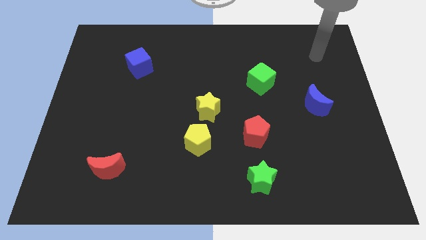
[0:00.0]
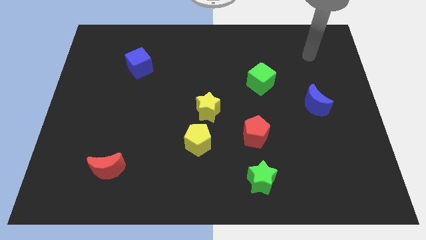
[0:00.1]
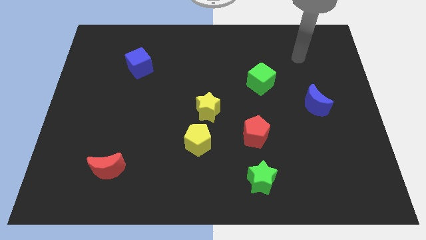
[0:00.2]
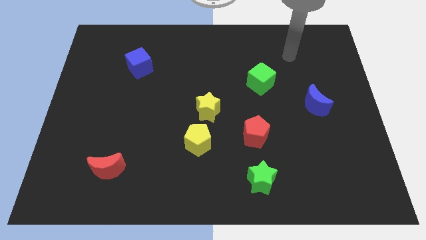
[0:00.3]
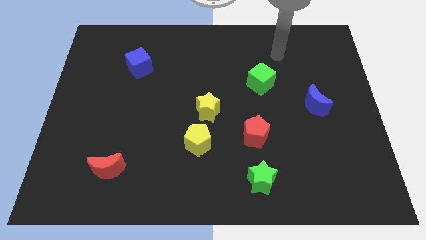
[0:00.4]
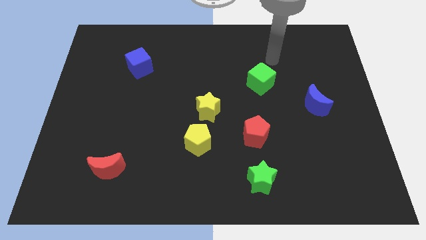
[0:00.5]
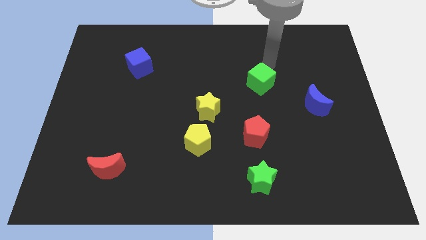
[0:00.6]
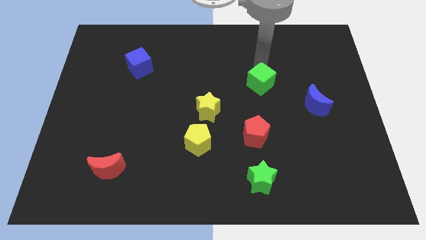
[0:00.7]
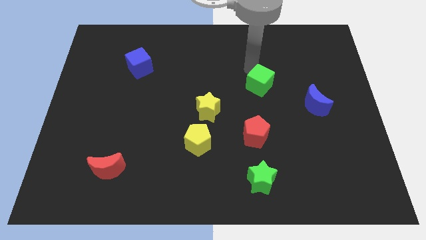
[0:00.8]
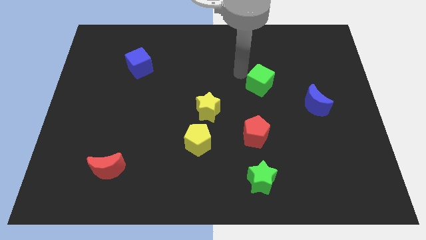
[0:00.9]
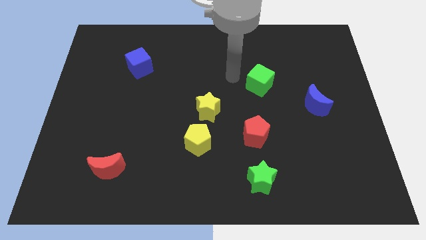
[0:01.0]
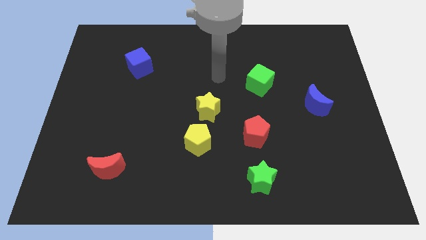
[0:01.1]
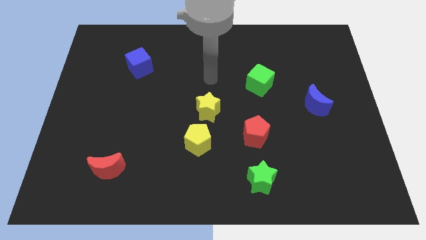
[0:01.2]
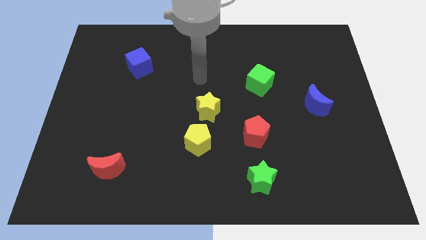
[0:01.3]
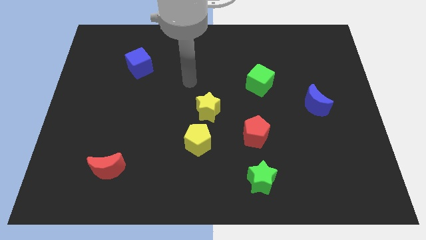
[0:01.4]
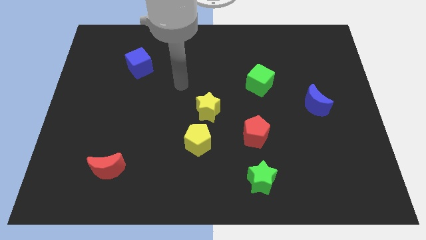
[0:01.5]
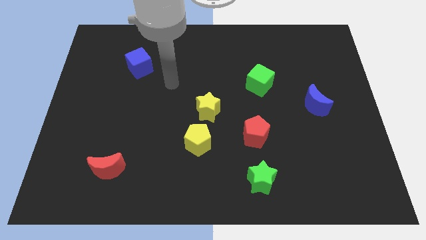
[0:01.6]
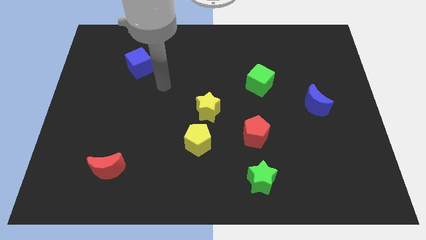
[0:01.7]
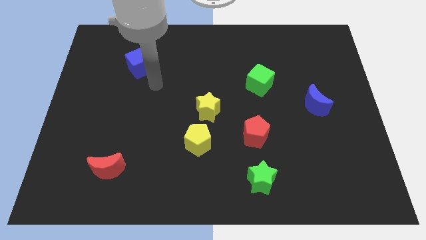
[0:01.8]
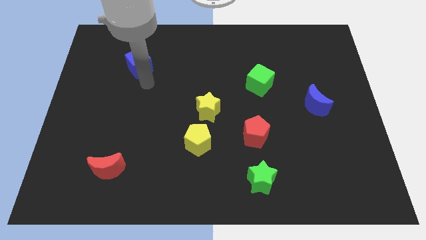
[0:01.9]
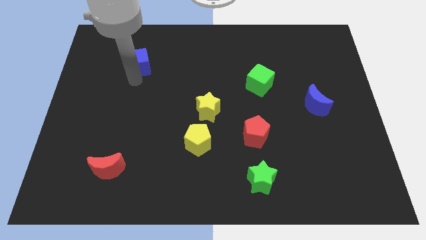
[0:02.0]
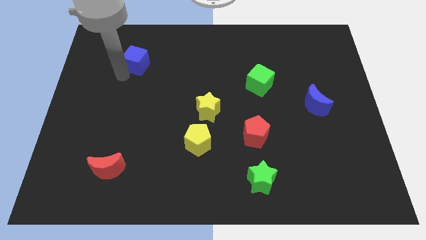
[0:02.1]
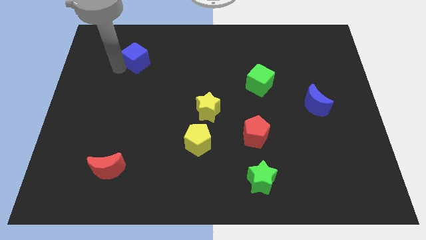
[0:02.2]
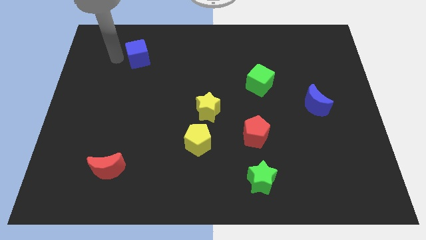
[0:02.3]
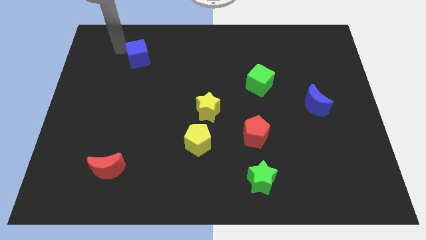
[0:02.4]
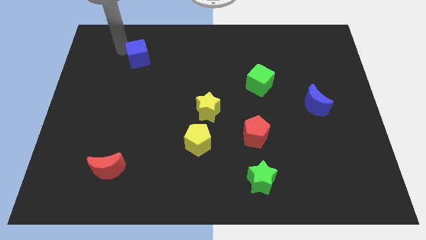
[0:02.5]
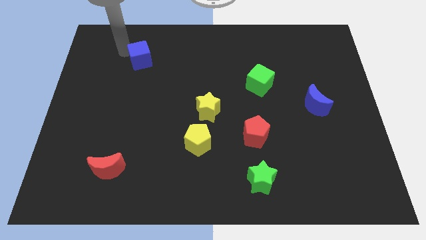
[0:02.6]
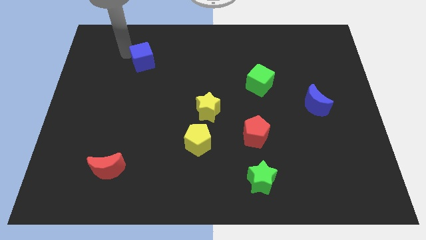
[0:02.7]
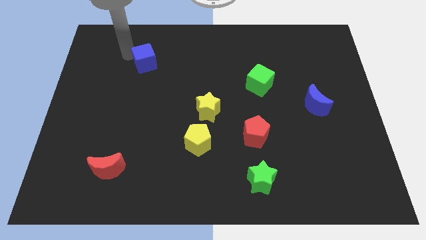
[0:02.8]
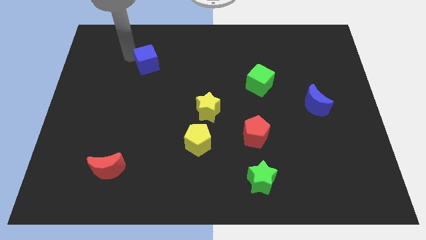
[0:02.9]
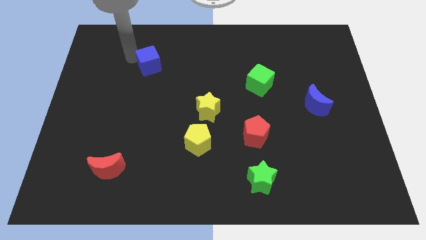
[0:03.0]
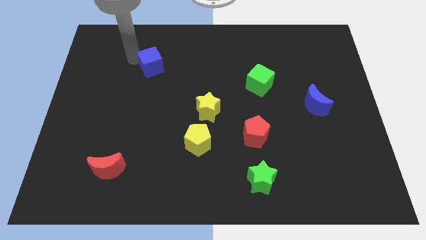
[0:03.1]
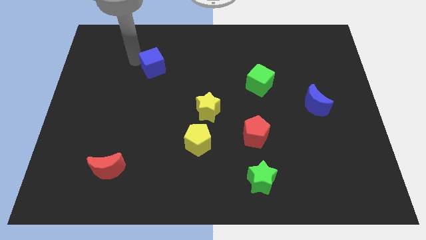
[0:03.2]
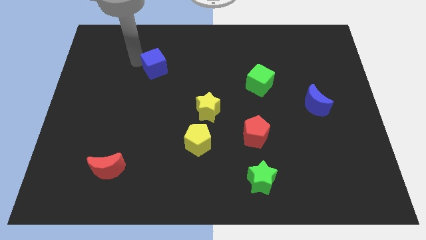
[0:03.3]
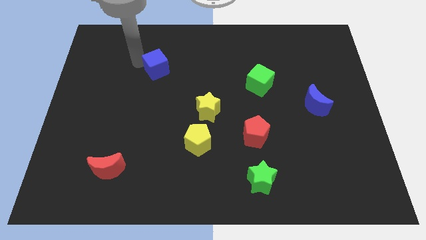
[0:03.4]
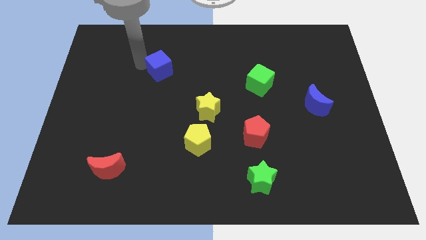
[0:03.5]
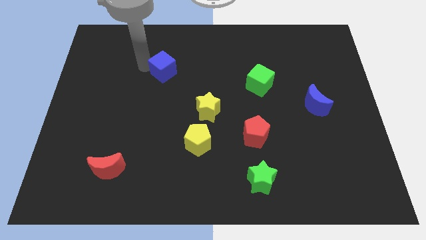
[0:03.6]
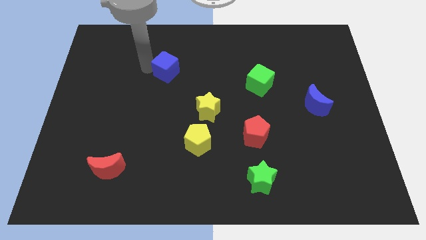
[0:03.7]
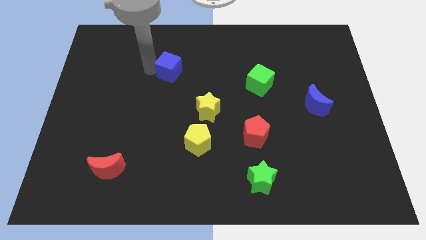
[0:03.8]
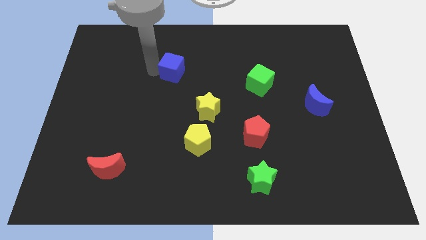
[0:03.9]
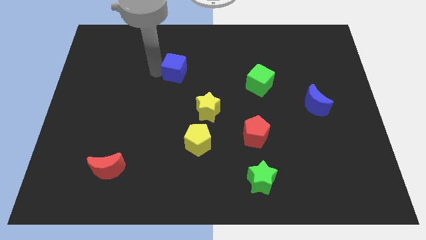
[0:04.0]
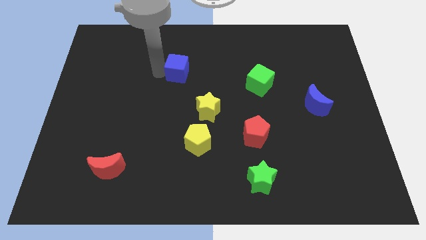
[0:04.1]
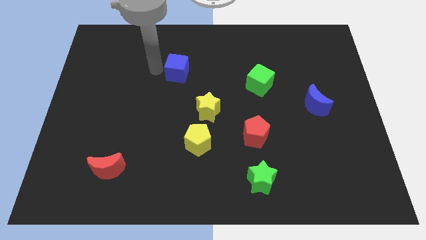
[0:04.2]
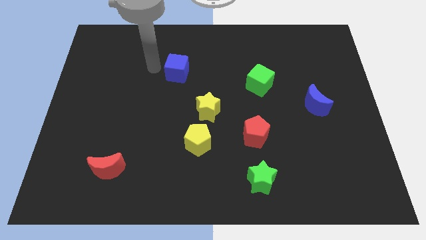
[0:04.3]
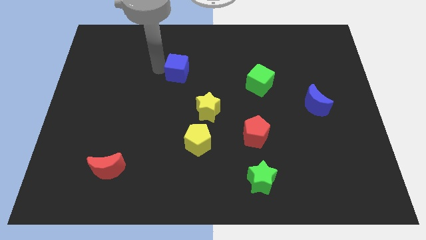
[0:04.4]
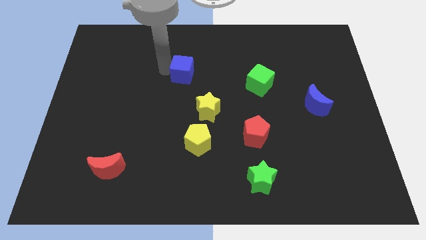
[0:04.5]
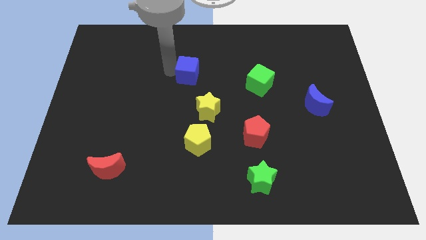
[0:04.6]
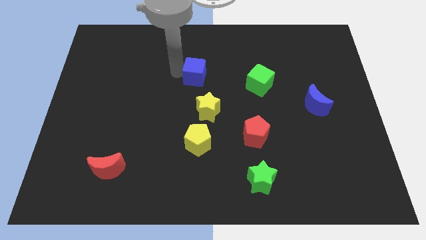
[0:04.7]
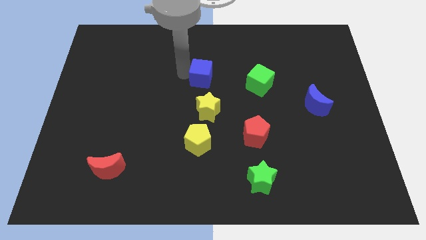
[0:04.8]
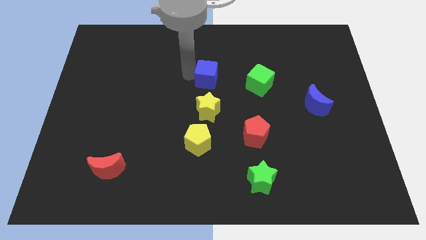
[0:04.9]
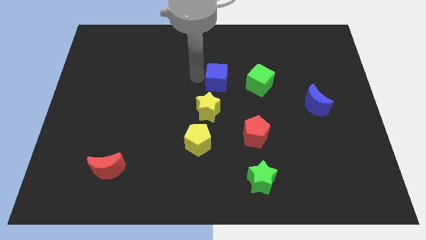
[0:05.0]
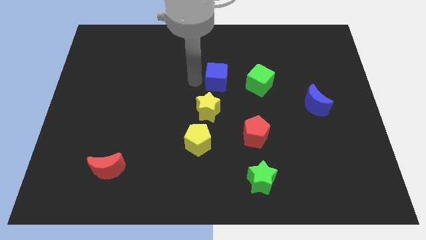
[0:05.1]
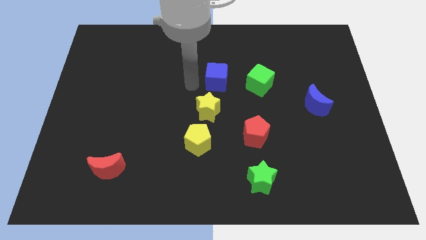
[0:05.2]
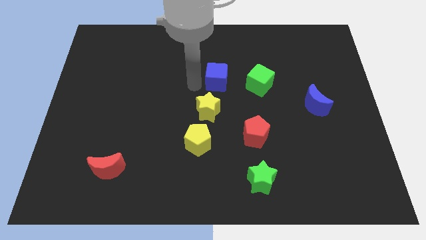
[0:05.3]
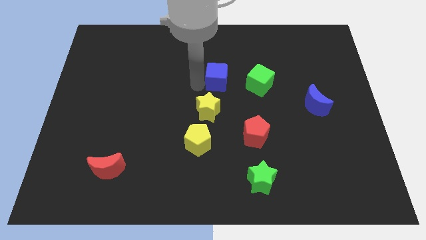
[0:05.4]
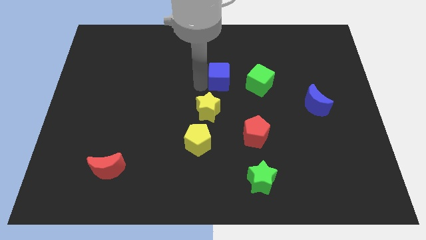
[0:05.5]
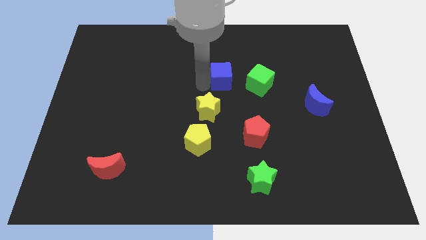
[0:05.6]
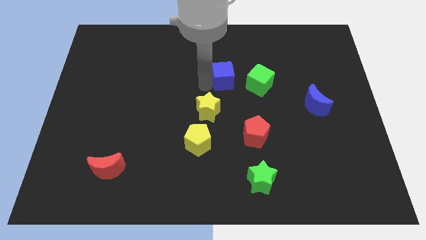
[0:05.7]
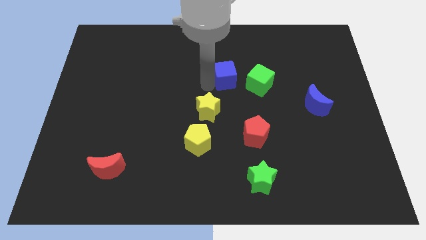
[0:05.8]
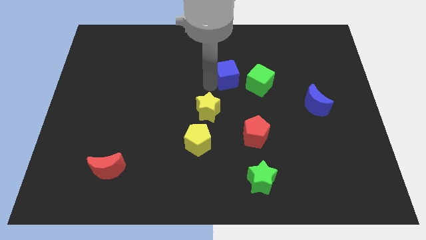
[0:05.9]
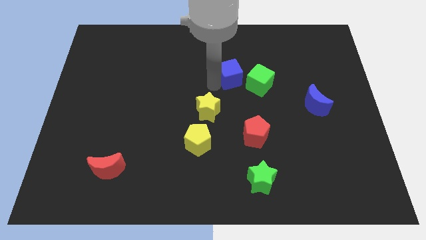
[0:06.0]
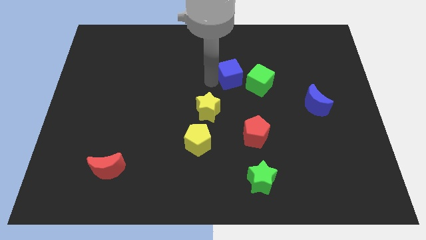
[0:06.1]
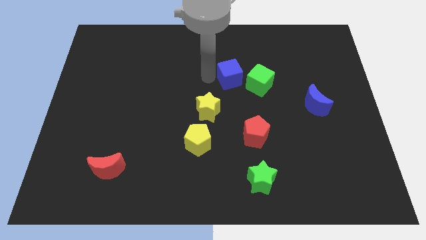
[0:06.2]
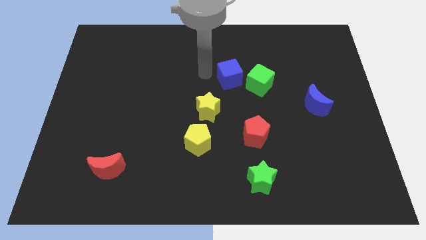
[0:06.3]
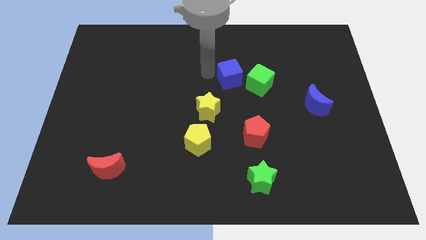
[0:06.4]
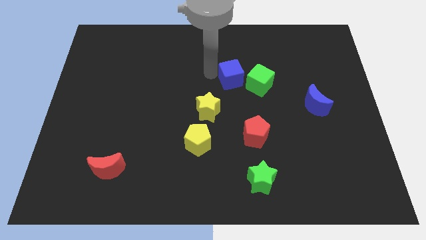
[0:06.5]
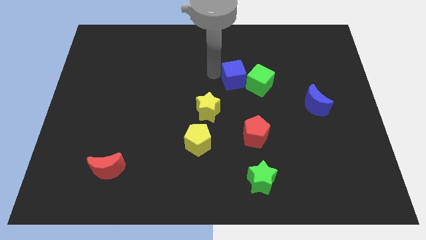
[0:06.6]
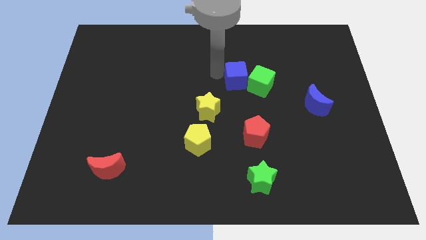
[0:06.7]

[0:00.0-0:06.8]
move the blue cube close to the green cube
